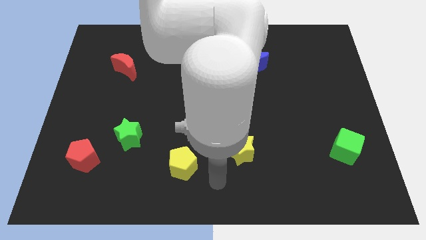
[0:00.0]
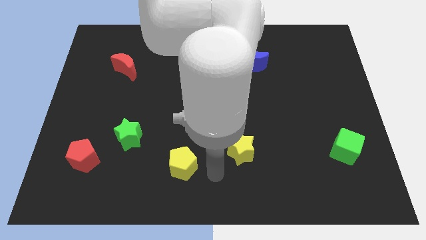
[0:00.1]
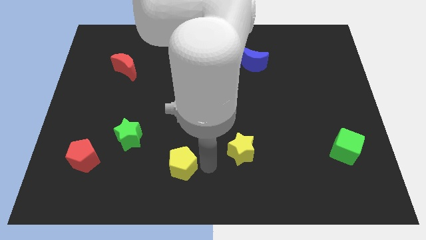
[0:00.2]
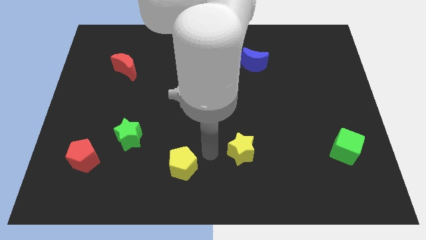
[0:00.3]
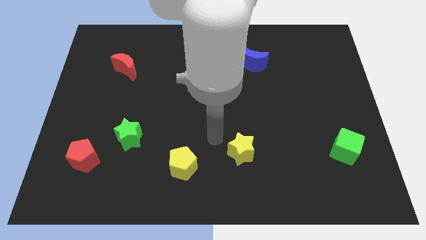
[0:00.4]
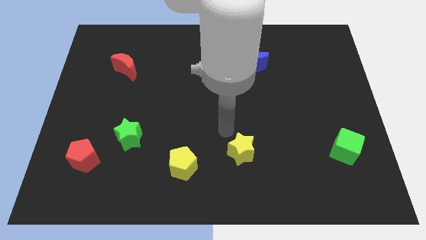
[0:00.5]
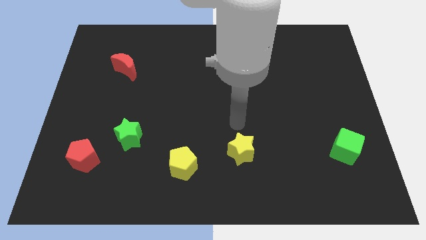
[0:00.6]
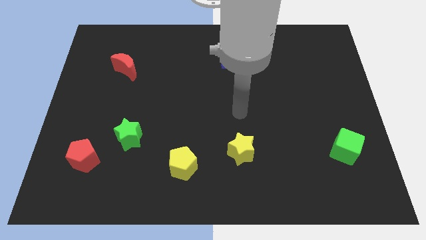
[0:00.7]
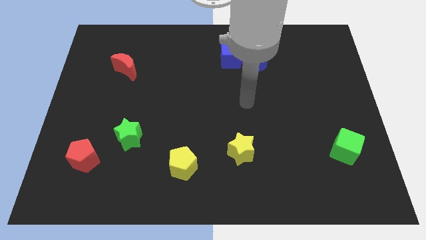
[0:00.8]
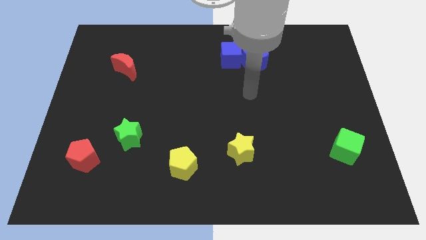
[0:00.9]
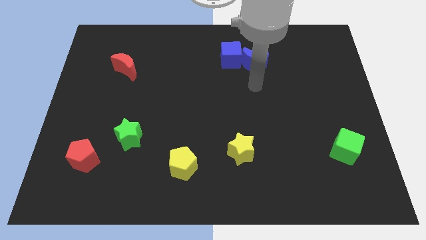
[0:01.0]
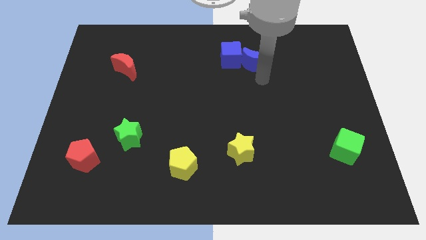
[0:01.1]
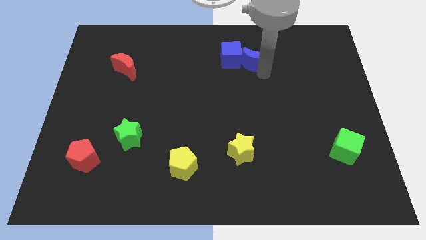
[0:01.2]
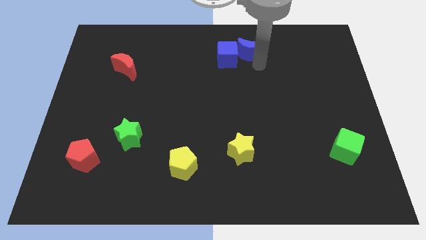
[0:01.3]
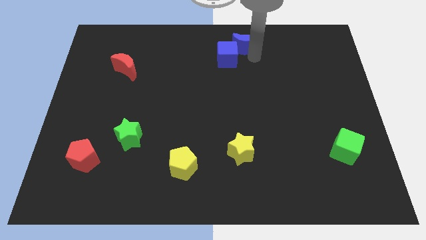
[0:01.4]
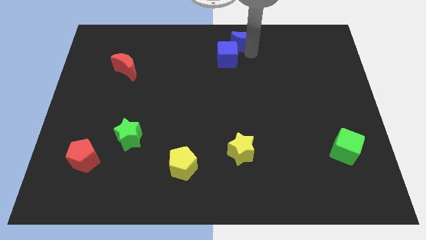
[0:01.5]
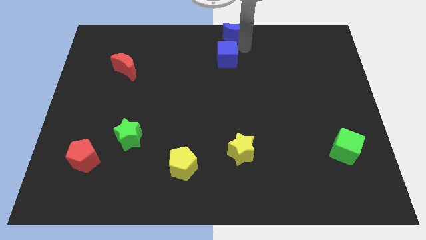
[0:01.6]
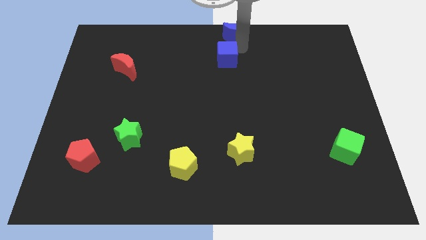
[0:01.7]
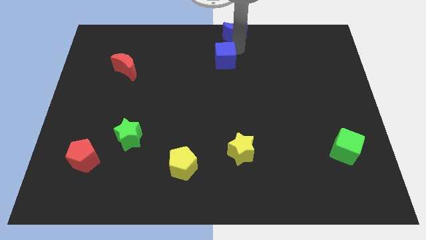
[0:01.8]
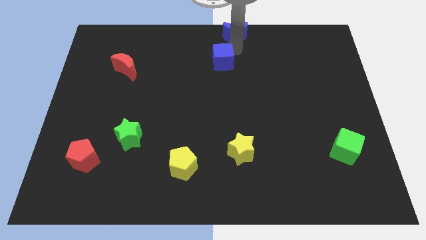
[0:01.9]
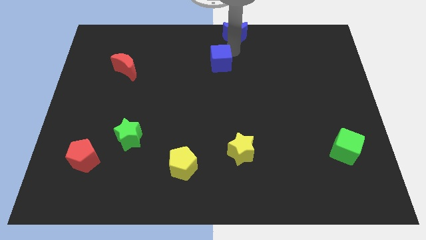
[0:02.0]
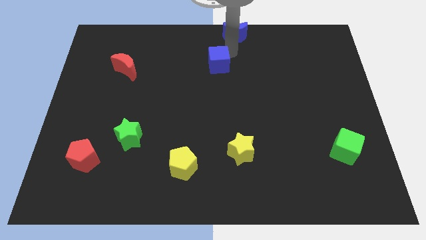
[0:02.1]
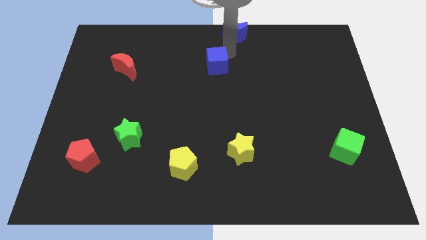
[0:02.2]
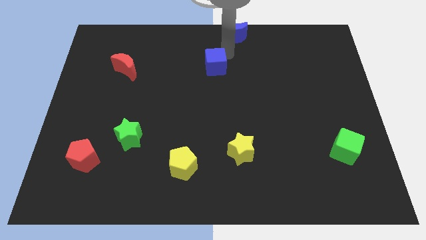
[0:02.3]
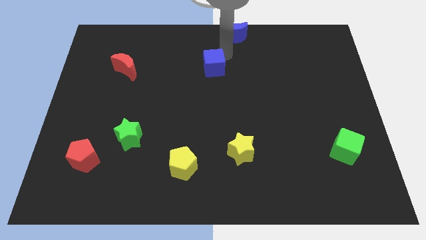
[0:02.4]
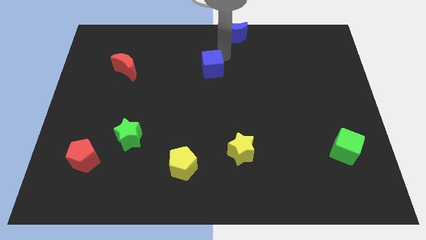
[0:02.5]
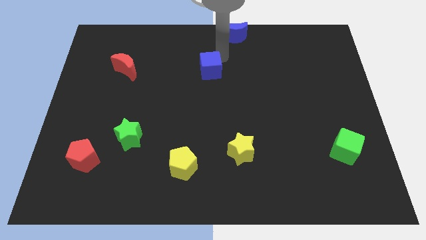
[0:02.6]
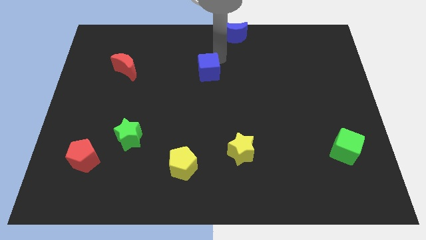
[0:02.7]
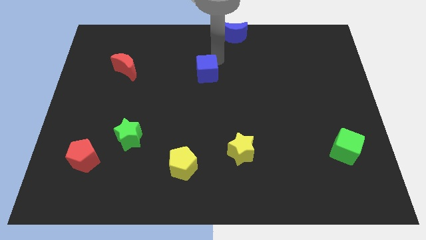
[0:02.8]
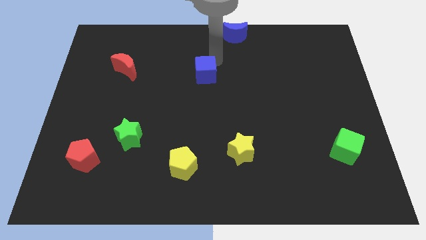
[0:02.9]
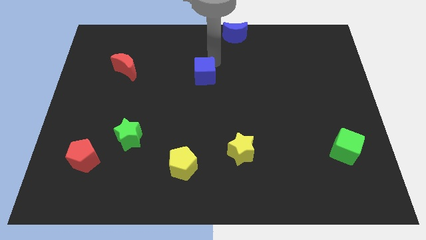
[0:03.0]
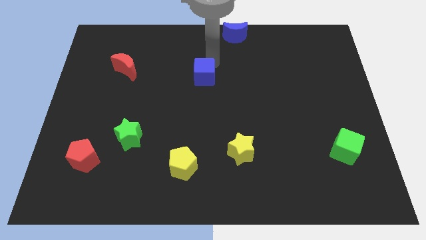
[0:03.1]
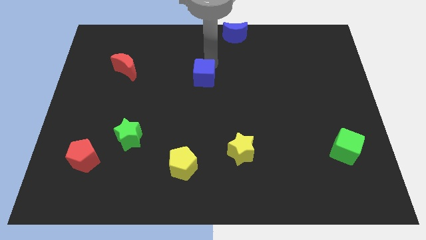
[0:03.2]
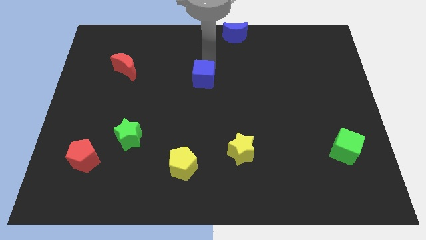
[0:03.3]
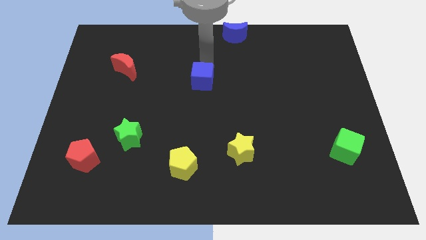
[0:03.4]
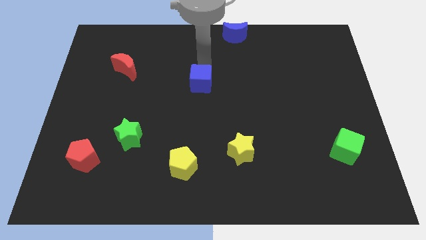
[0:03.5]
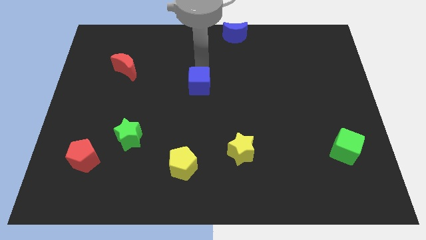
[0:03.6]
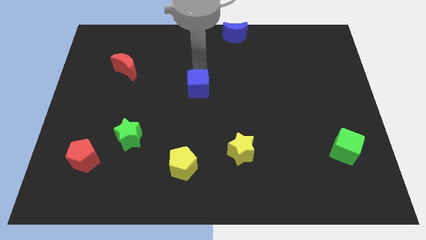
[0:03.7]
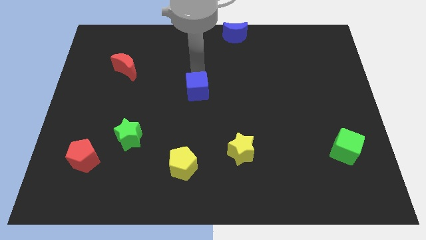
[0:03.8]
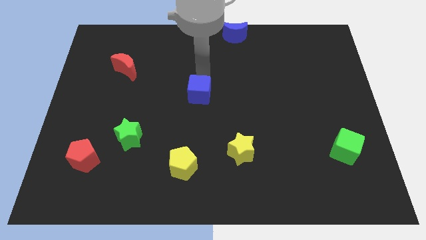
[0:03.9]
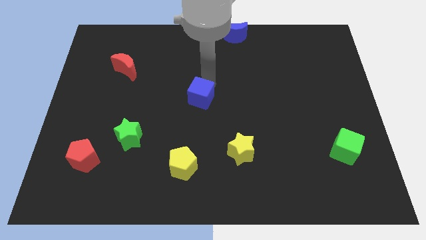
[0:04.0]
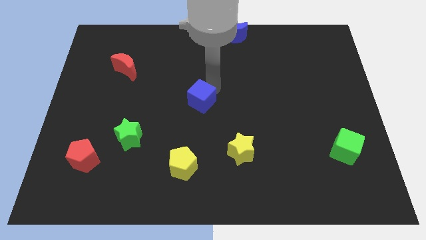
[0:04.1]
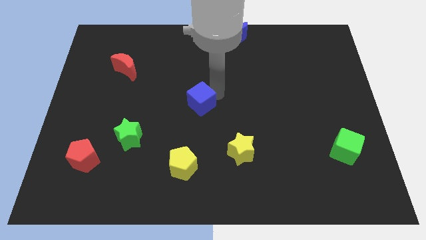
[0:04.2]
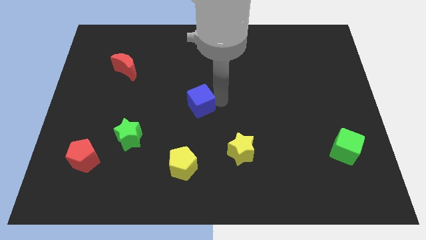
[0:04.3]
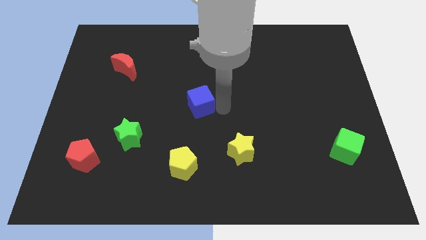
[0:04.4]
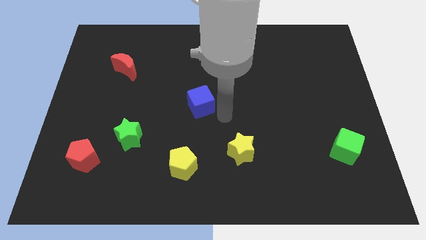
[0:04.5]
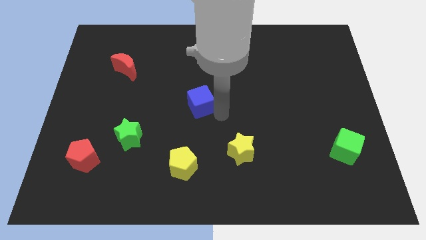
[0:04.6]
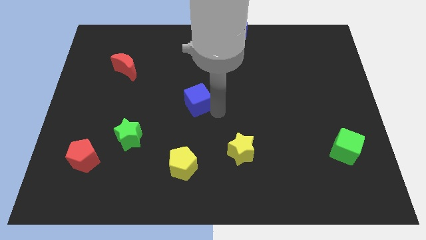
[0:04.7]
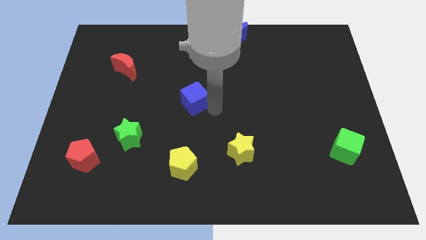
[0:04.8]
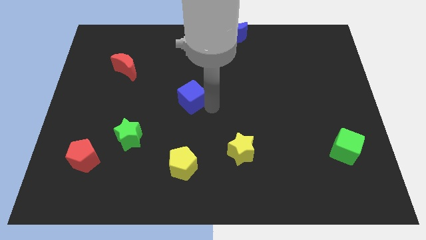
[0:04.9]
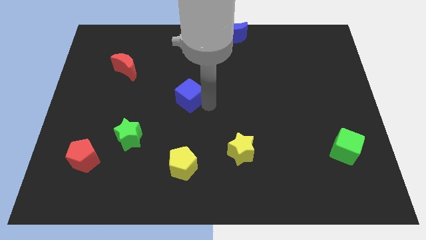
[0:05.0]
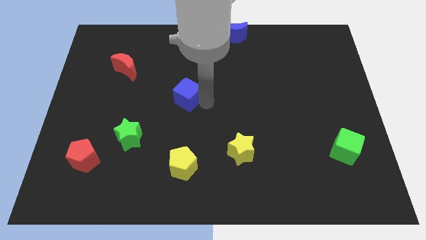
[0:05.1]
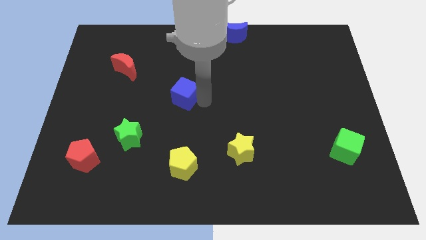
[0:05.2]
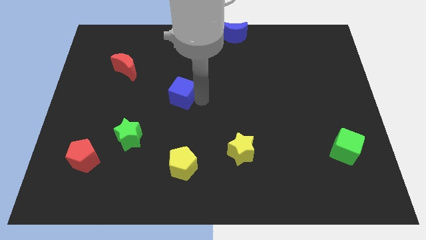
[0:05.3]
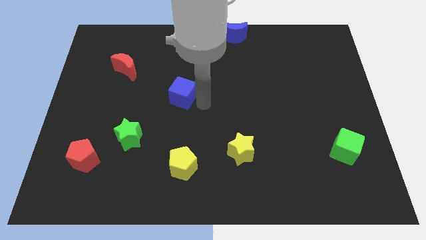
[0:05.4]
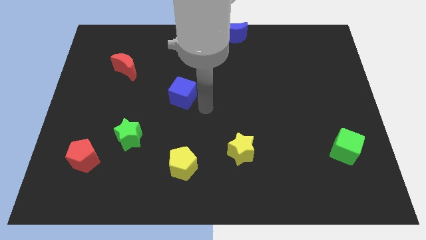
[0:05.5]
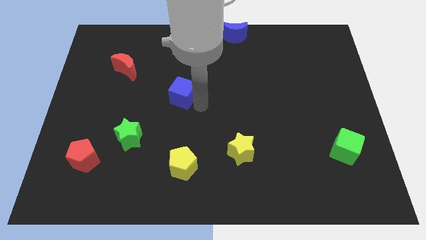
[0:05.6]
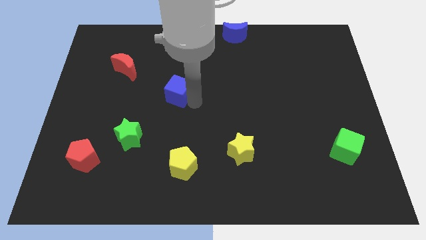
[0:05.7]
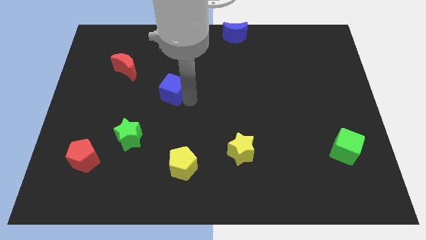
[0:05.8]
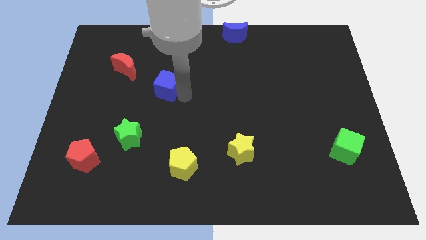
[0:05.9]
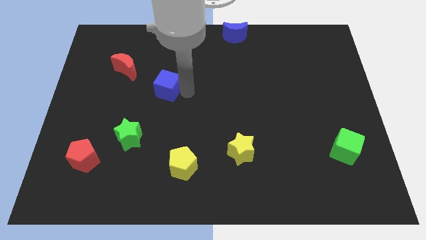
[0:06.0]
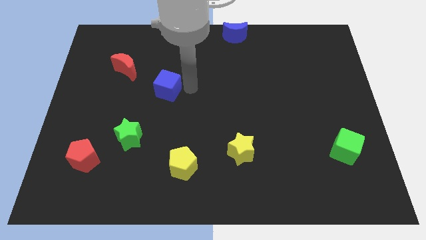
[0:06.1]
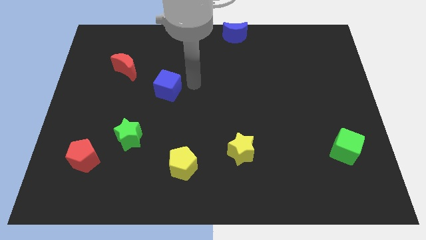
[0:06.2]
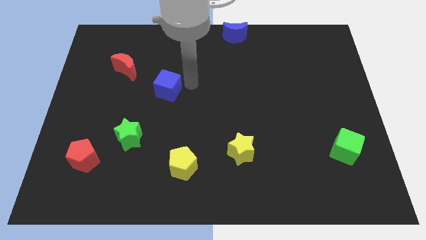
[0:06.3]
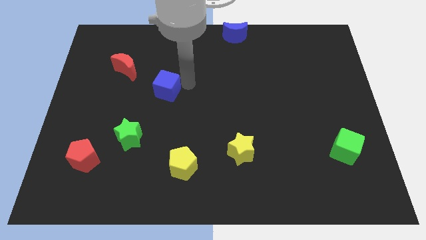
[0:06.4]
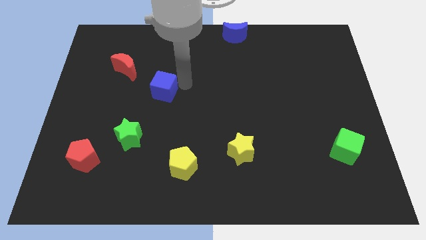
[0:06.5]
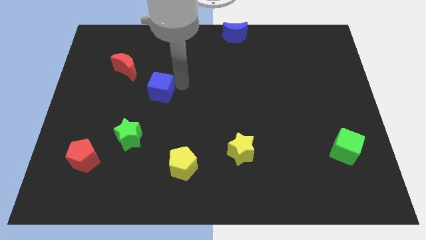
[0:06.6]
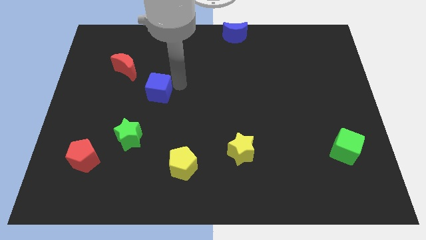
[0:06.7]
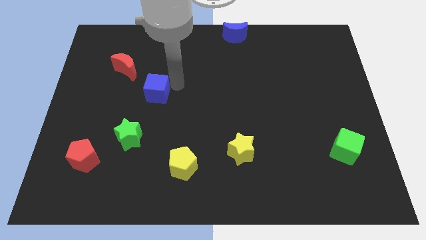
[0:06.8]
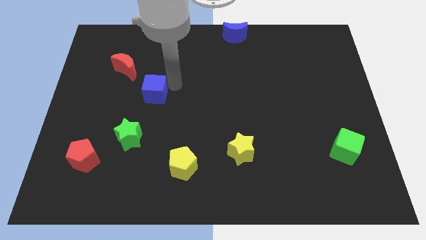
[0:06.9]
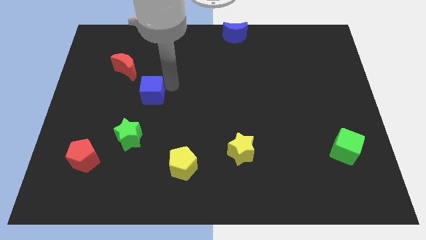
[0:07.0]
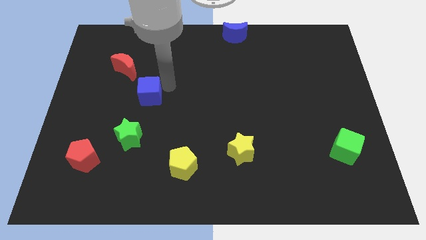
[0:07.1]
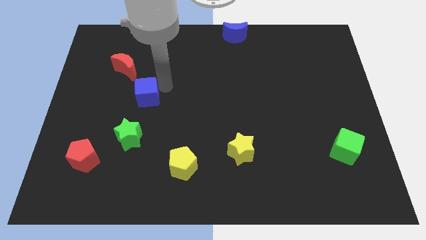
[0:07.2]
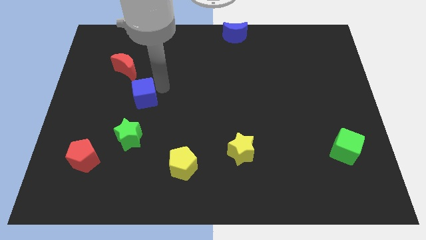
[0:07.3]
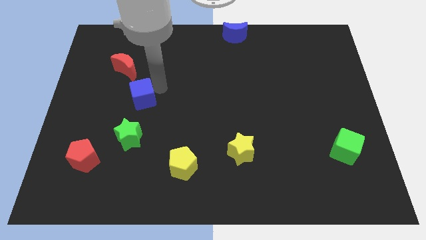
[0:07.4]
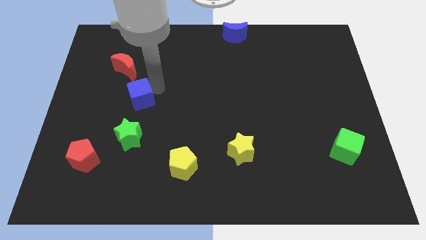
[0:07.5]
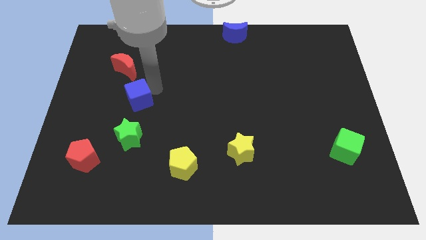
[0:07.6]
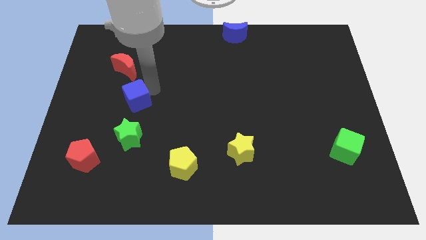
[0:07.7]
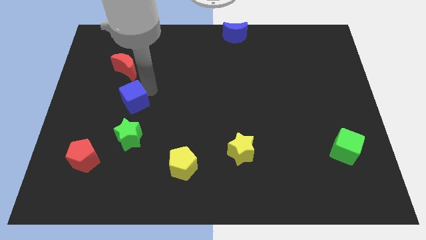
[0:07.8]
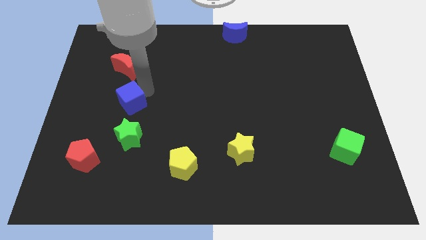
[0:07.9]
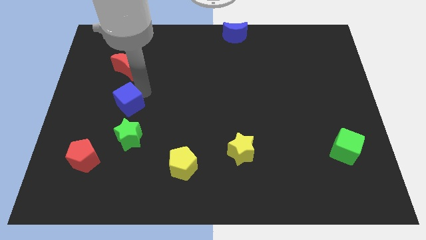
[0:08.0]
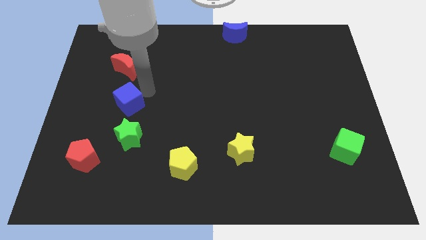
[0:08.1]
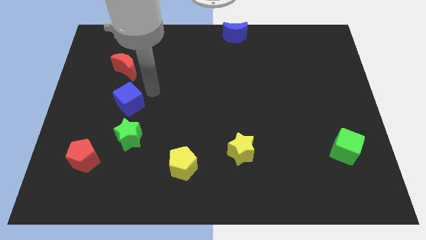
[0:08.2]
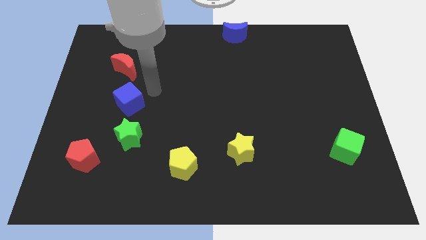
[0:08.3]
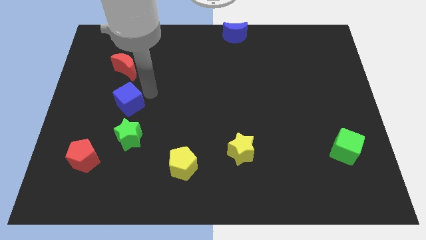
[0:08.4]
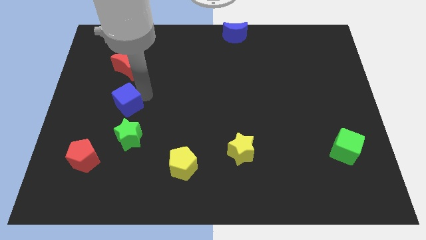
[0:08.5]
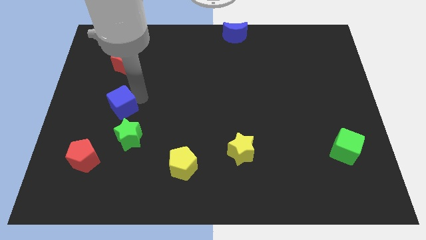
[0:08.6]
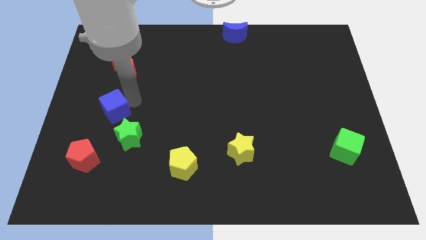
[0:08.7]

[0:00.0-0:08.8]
move the blue cube above the red pentagon
